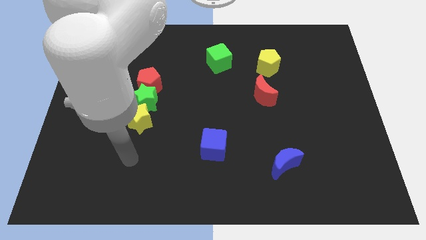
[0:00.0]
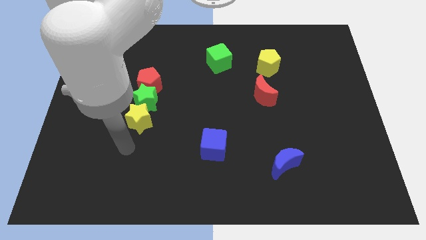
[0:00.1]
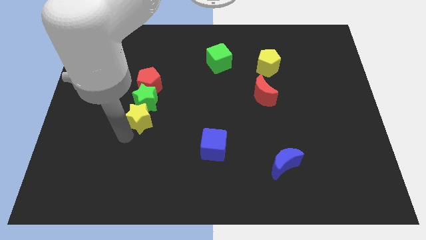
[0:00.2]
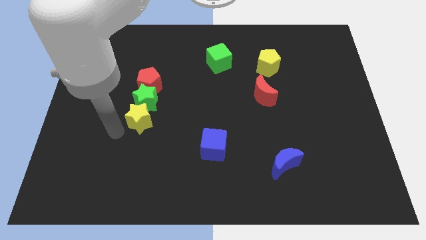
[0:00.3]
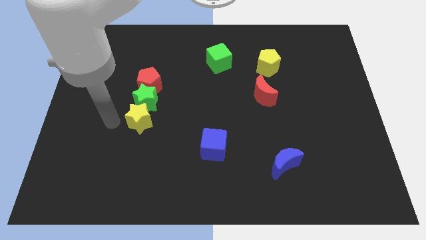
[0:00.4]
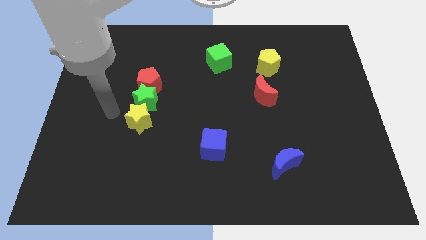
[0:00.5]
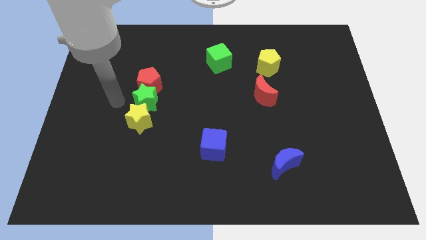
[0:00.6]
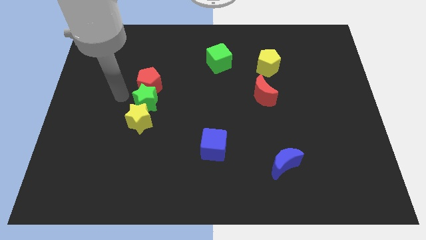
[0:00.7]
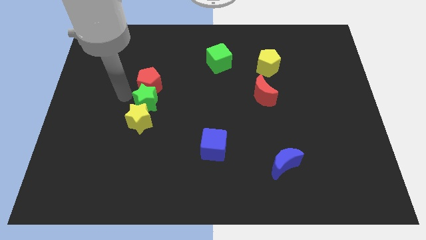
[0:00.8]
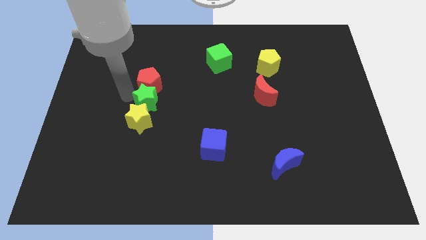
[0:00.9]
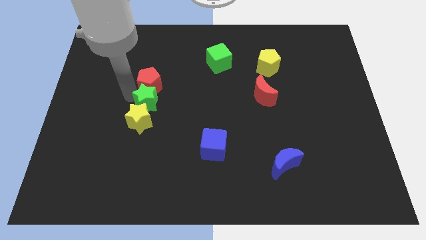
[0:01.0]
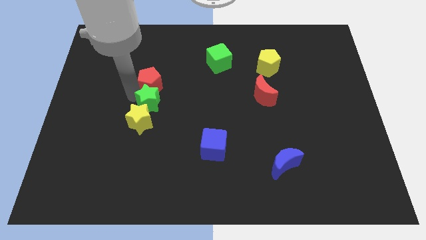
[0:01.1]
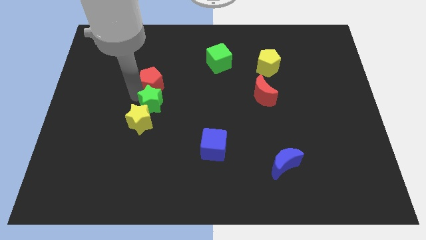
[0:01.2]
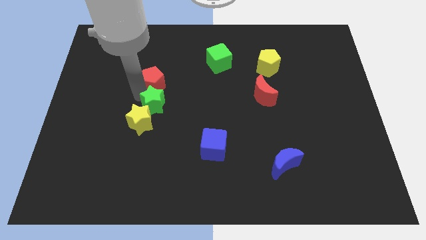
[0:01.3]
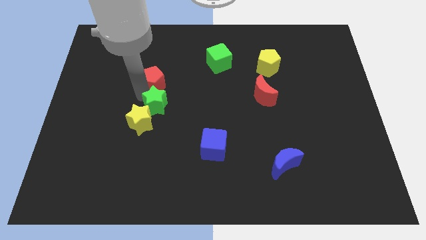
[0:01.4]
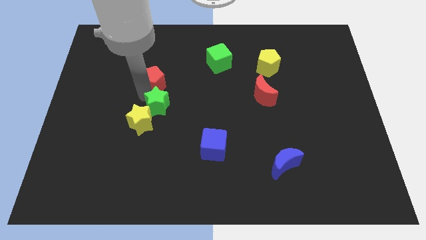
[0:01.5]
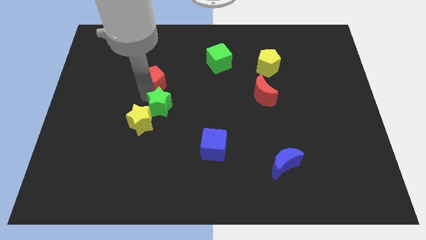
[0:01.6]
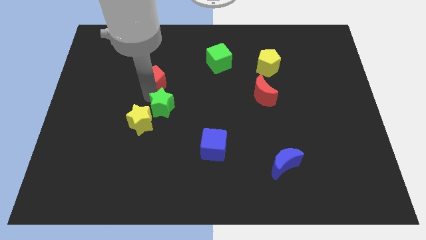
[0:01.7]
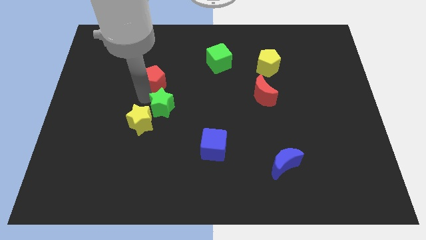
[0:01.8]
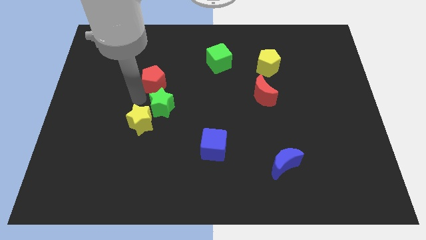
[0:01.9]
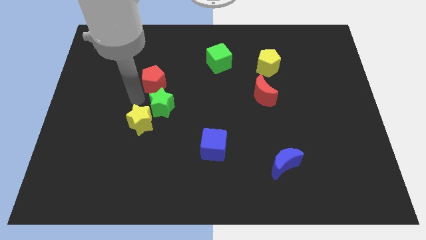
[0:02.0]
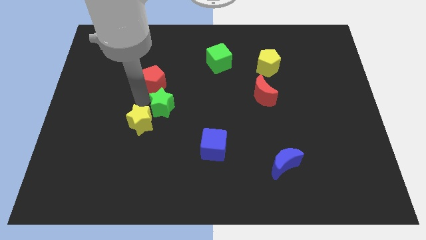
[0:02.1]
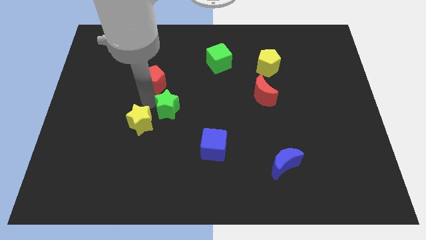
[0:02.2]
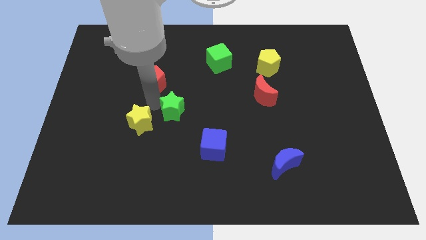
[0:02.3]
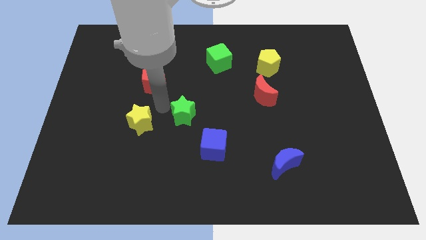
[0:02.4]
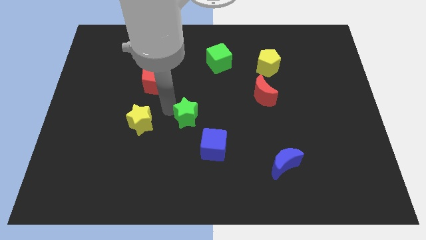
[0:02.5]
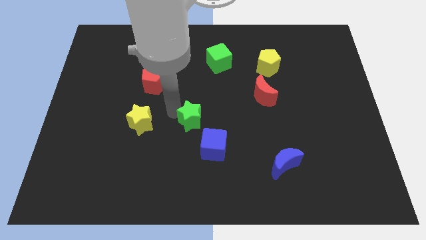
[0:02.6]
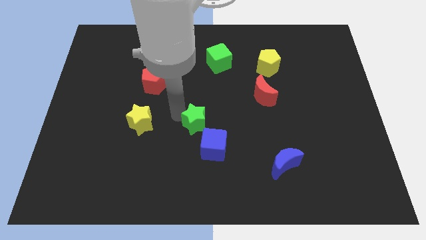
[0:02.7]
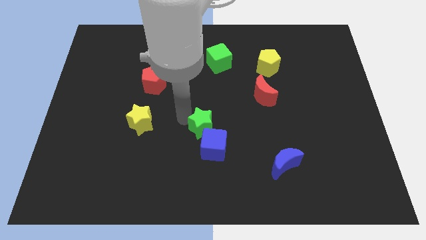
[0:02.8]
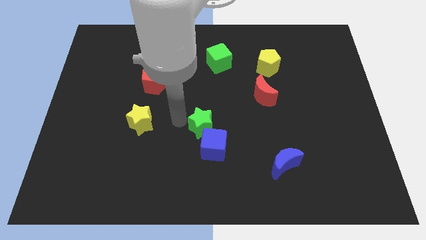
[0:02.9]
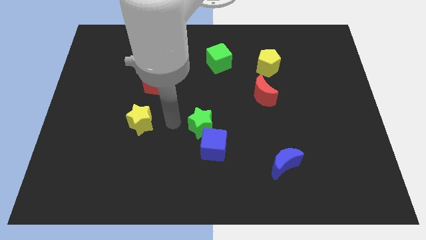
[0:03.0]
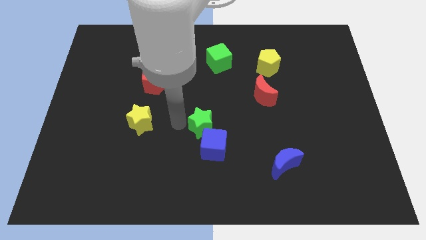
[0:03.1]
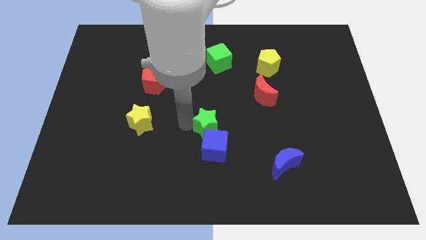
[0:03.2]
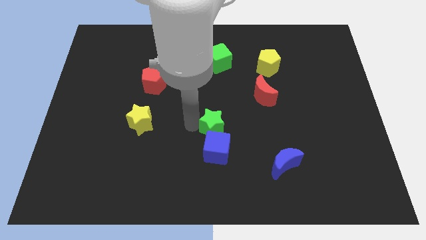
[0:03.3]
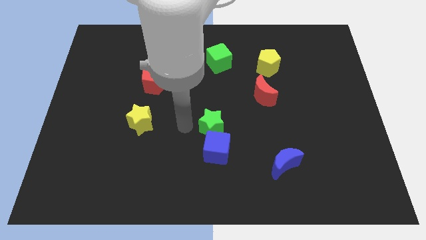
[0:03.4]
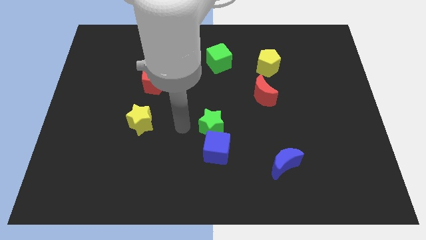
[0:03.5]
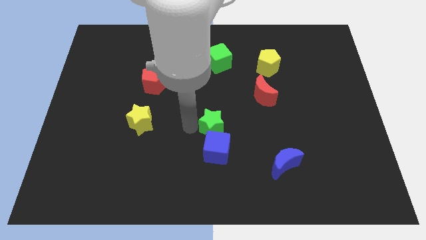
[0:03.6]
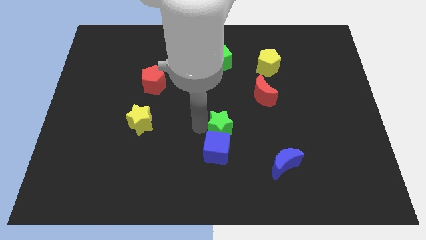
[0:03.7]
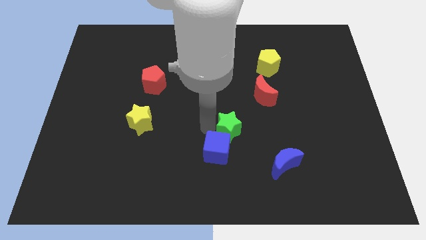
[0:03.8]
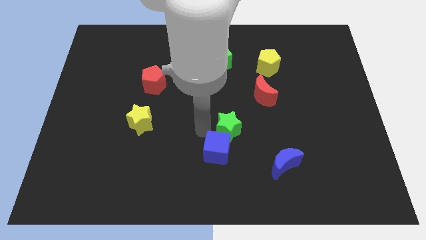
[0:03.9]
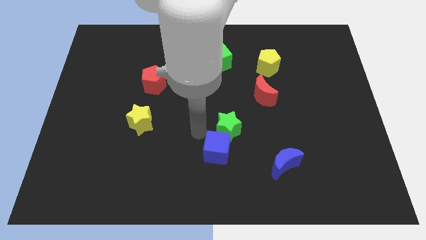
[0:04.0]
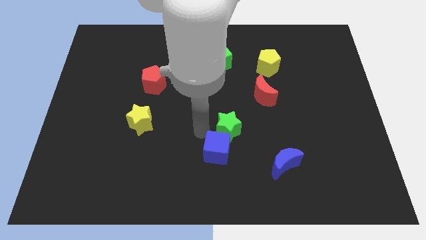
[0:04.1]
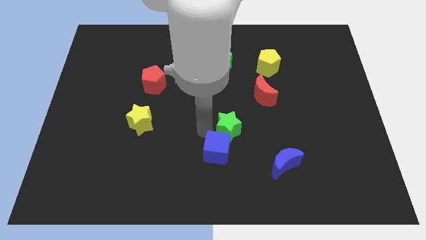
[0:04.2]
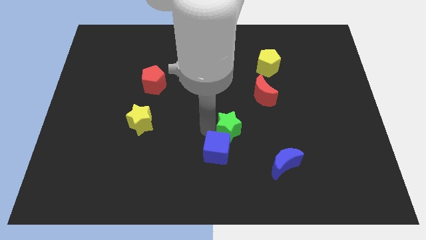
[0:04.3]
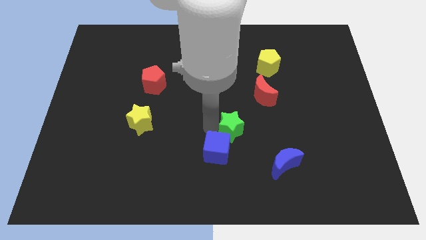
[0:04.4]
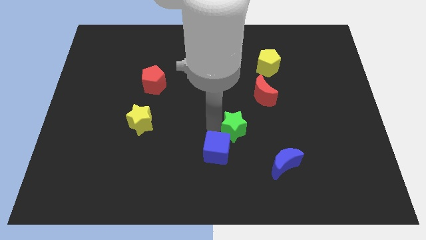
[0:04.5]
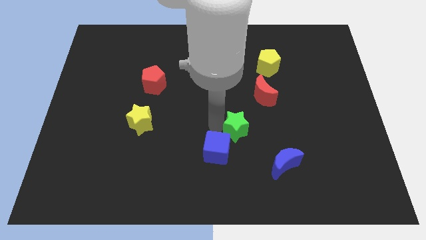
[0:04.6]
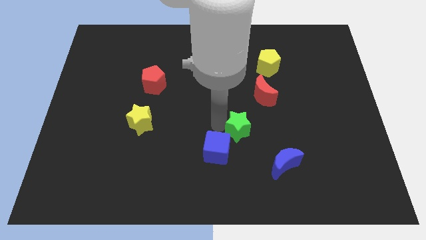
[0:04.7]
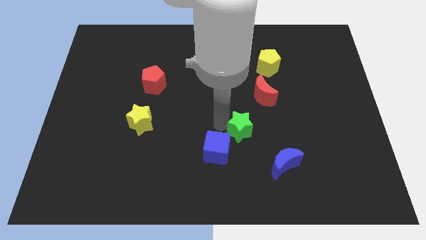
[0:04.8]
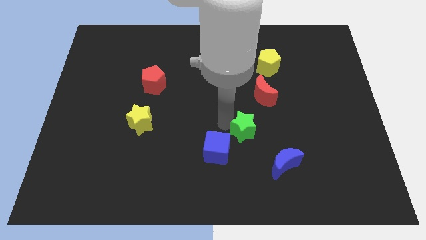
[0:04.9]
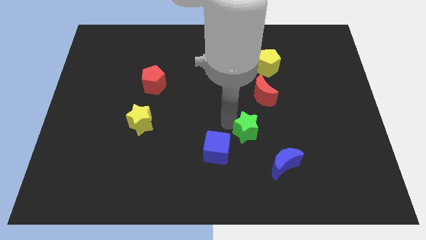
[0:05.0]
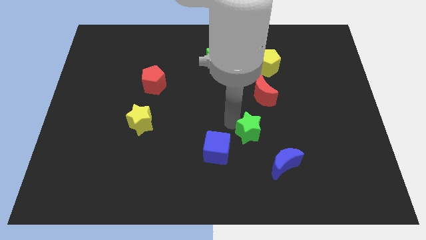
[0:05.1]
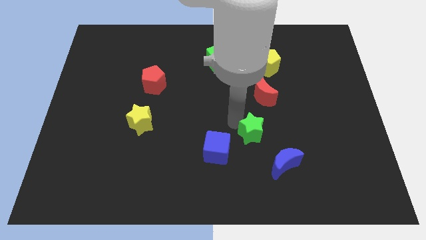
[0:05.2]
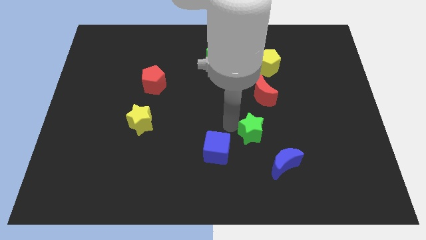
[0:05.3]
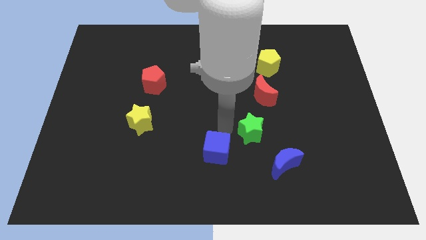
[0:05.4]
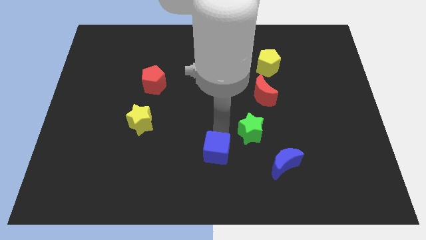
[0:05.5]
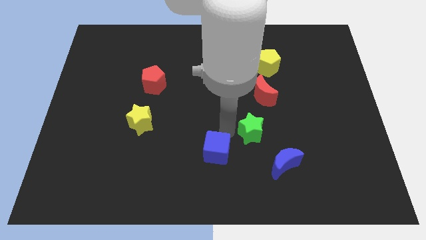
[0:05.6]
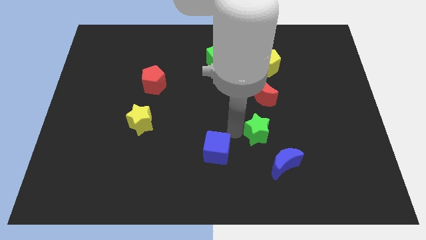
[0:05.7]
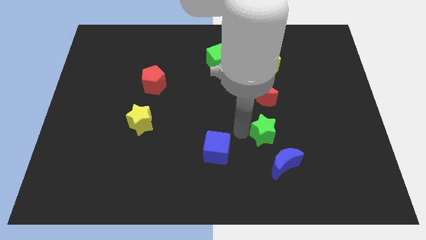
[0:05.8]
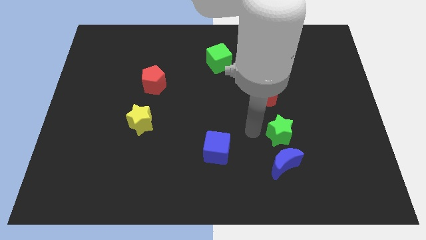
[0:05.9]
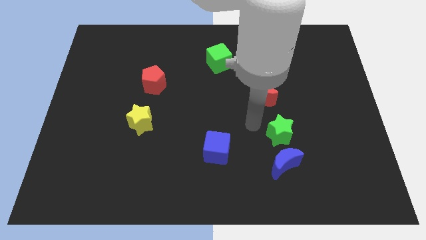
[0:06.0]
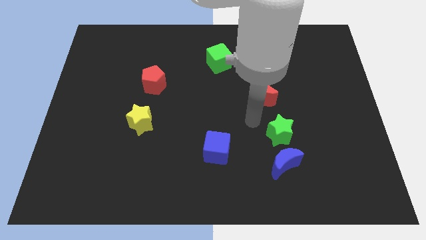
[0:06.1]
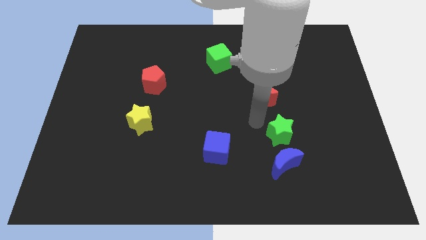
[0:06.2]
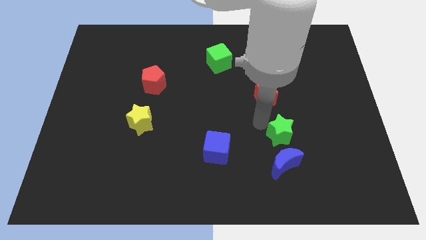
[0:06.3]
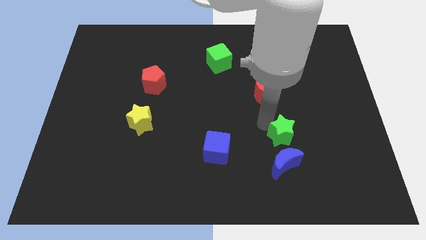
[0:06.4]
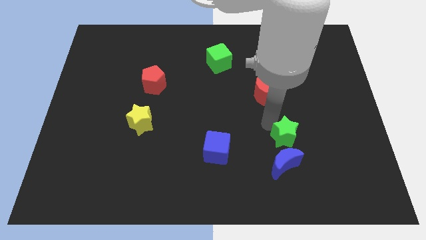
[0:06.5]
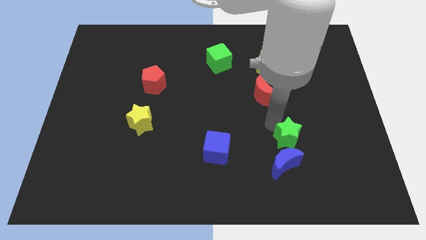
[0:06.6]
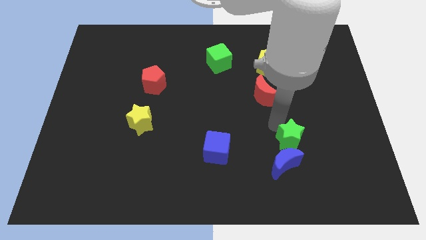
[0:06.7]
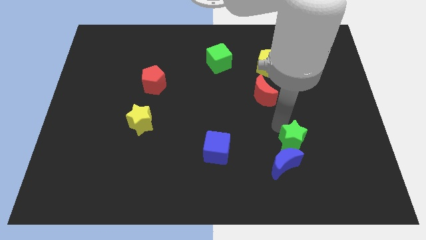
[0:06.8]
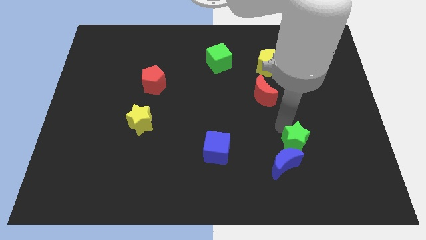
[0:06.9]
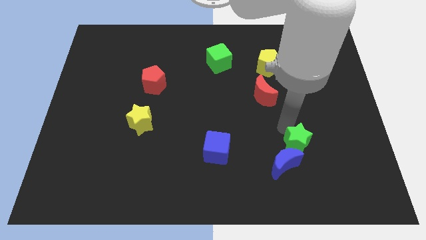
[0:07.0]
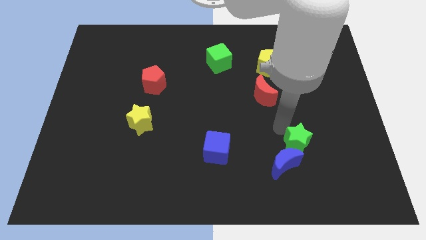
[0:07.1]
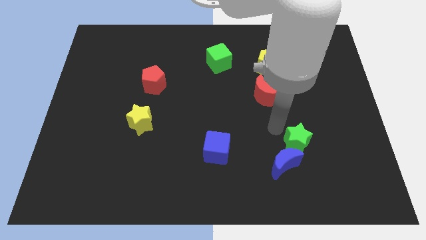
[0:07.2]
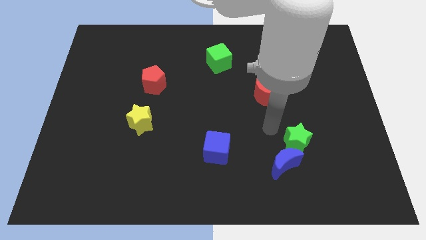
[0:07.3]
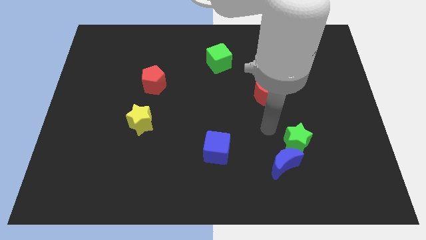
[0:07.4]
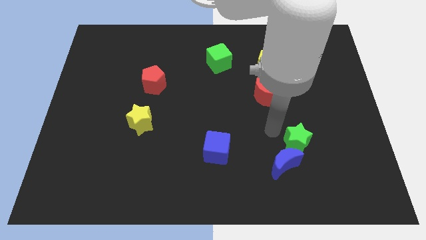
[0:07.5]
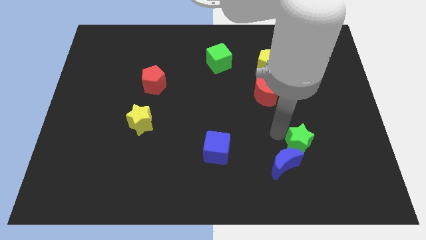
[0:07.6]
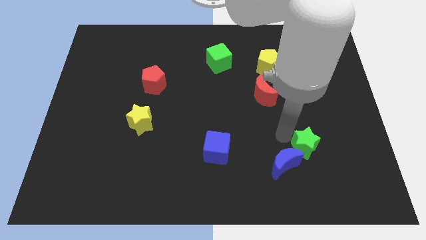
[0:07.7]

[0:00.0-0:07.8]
put the green star to the right side of the blue moon

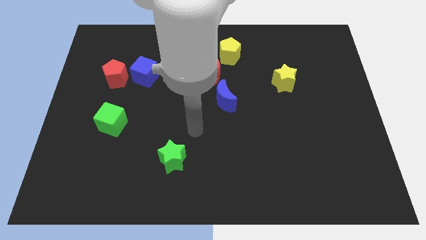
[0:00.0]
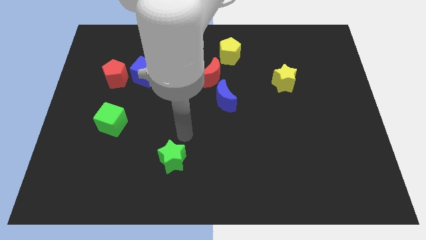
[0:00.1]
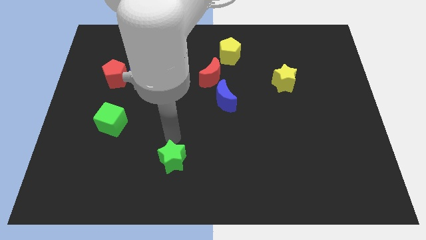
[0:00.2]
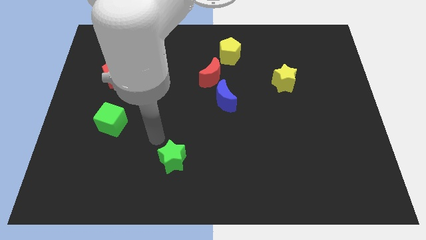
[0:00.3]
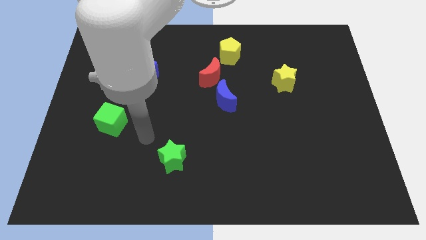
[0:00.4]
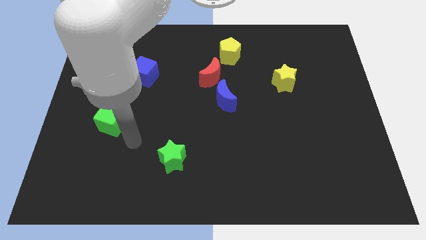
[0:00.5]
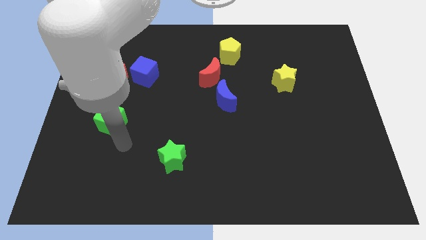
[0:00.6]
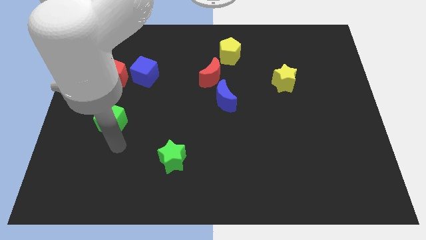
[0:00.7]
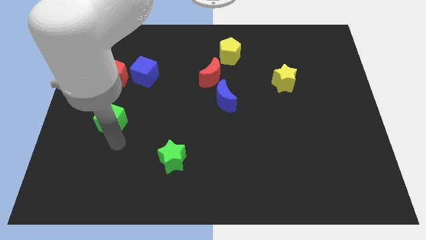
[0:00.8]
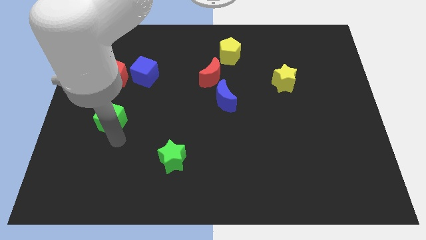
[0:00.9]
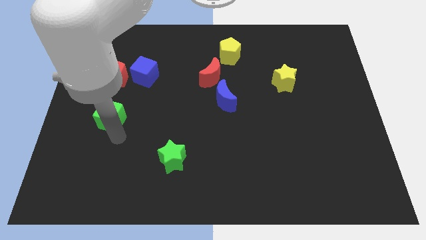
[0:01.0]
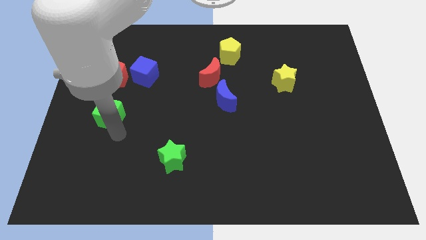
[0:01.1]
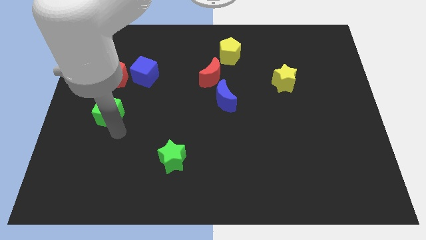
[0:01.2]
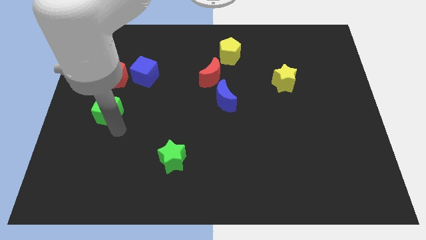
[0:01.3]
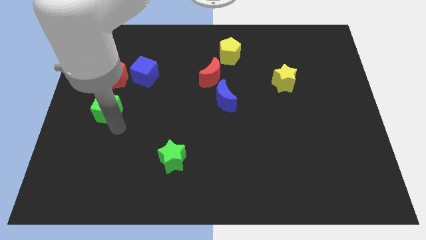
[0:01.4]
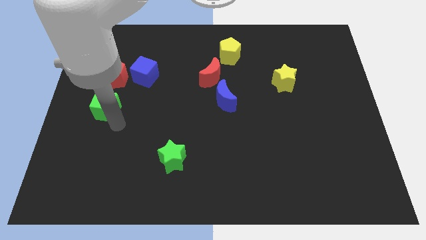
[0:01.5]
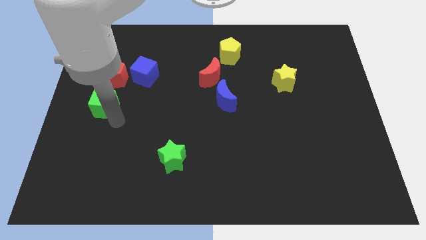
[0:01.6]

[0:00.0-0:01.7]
move the green cube to the bottom left of the blue cube
